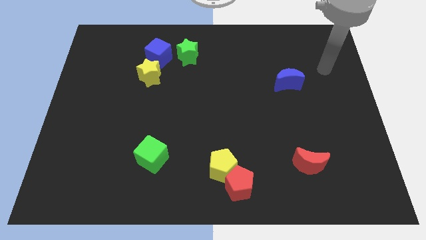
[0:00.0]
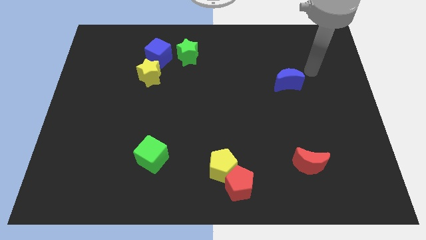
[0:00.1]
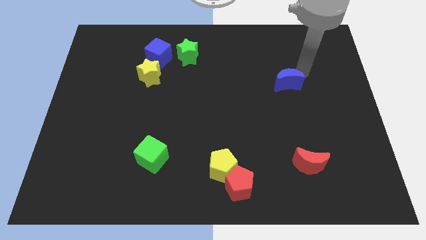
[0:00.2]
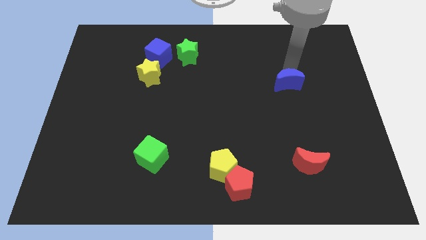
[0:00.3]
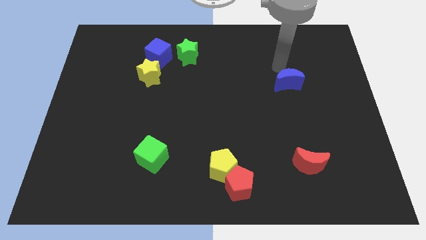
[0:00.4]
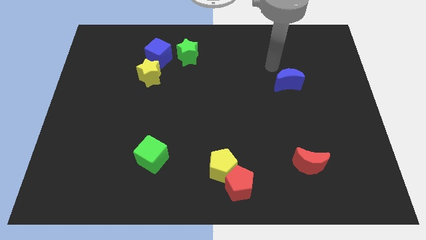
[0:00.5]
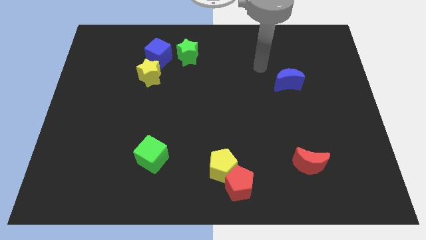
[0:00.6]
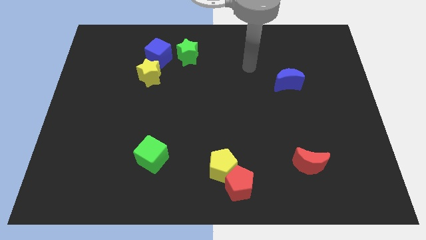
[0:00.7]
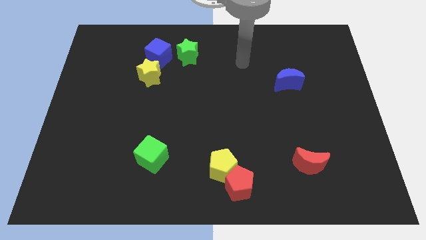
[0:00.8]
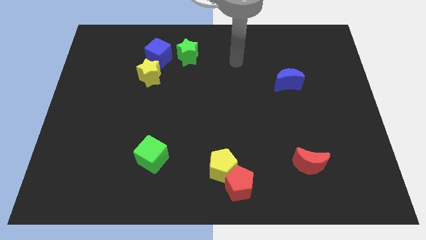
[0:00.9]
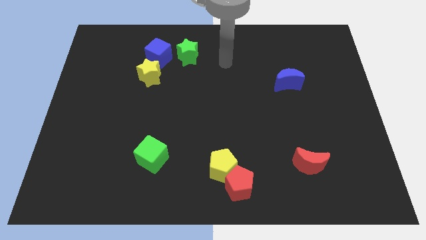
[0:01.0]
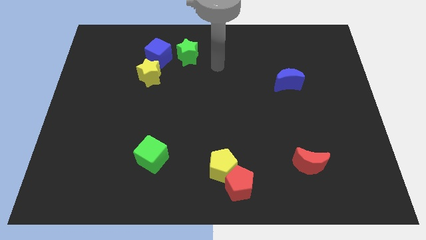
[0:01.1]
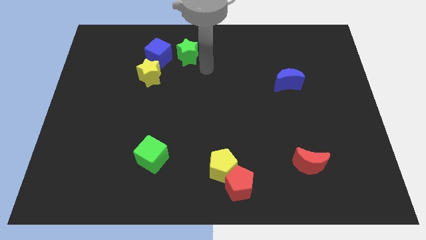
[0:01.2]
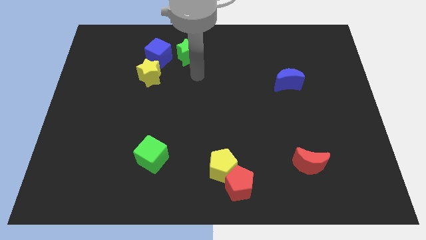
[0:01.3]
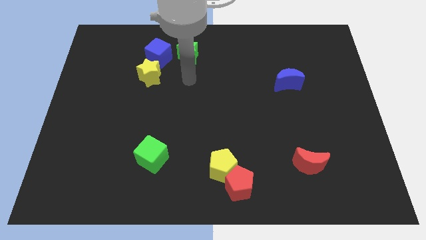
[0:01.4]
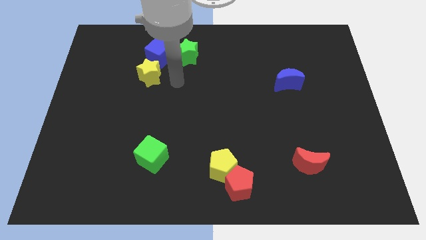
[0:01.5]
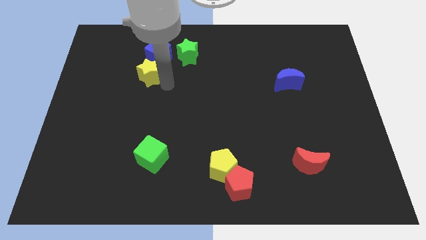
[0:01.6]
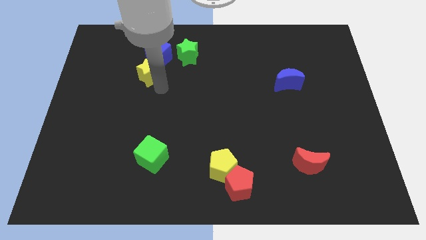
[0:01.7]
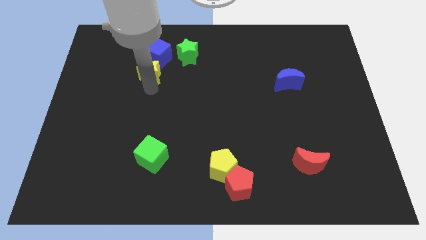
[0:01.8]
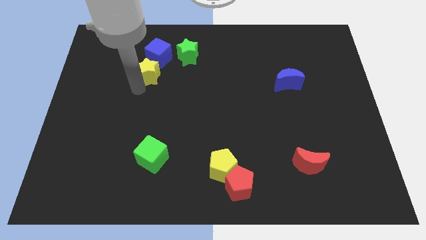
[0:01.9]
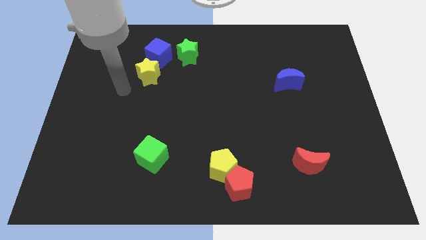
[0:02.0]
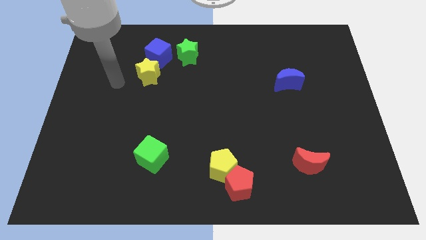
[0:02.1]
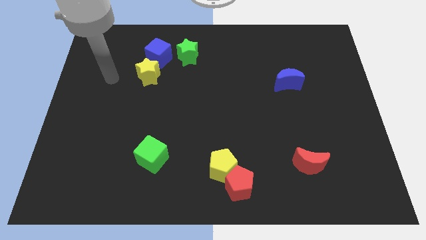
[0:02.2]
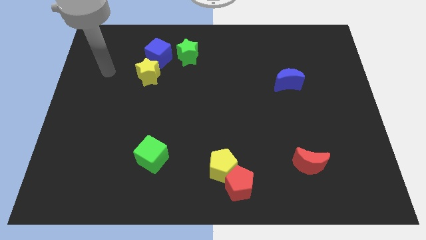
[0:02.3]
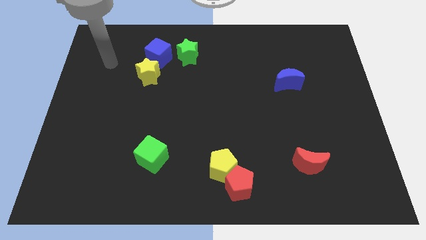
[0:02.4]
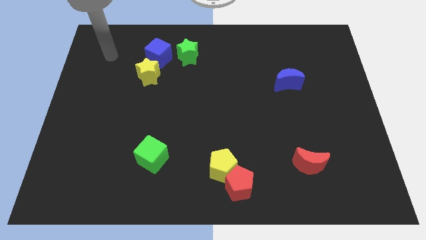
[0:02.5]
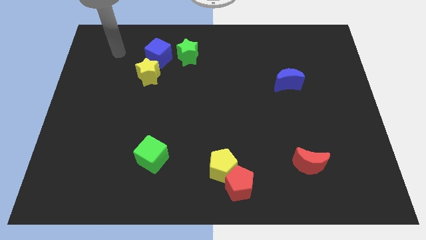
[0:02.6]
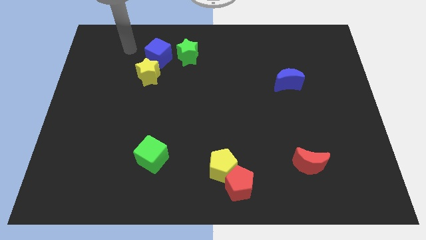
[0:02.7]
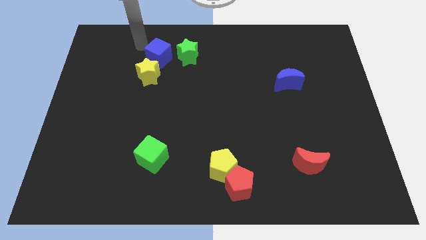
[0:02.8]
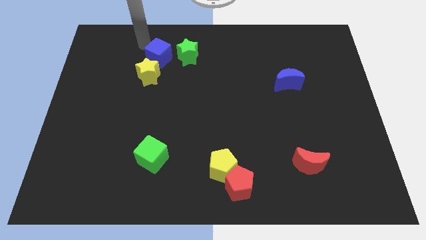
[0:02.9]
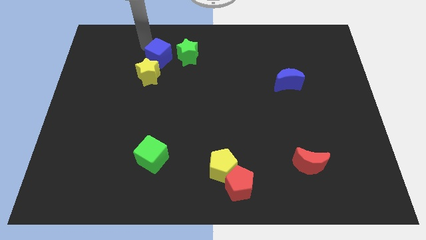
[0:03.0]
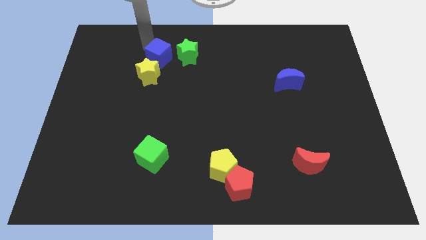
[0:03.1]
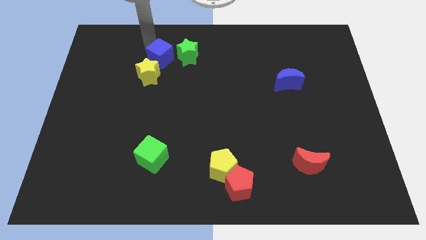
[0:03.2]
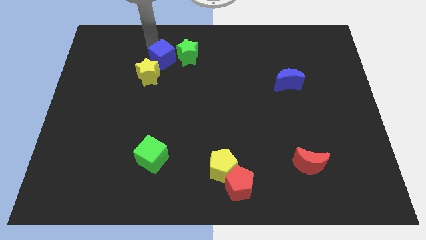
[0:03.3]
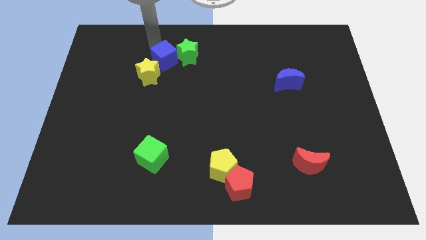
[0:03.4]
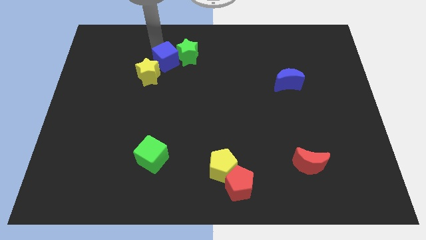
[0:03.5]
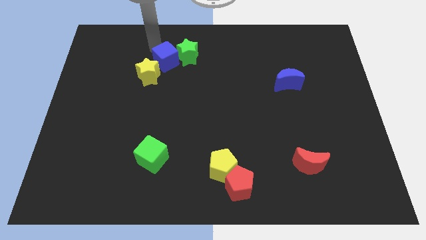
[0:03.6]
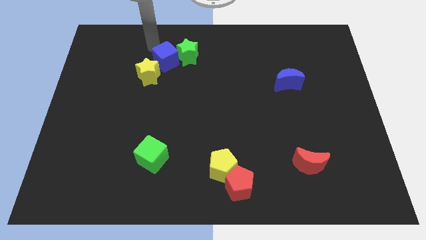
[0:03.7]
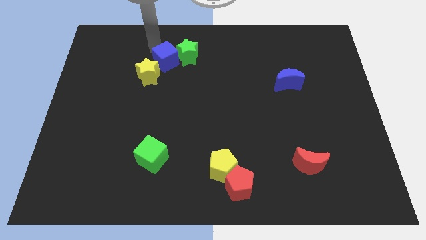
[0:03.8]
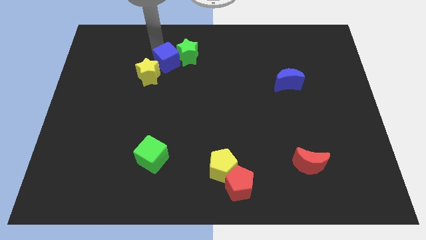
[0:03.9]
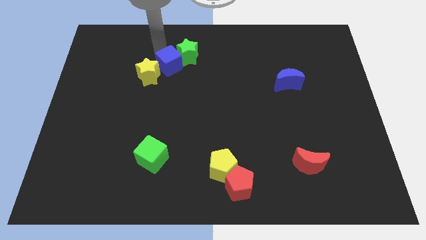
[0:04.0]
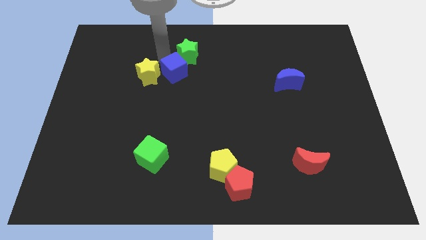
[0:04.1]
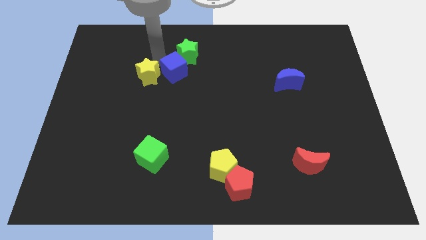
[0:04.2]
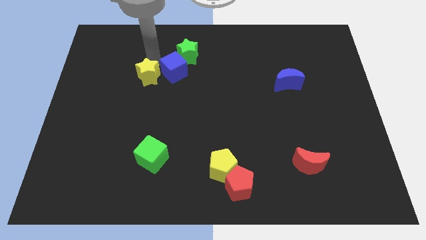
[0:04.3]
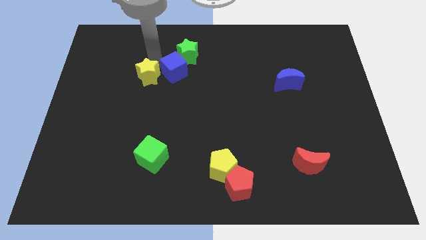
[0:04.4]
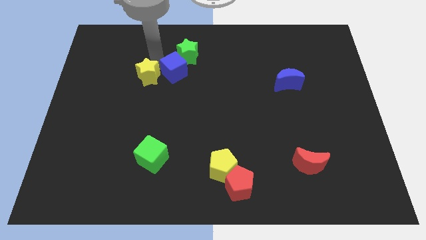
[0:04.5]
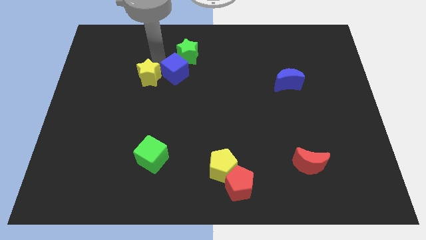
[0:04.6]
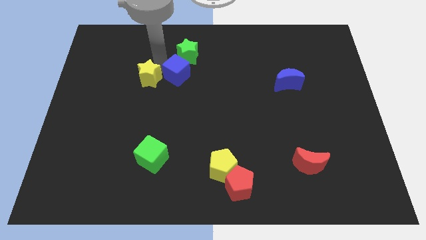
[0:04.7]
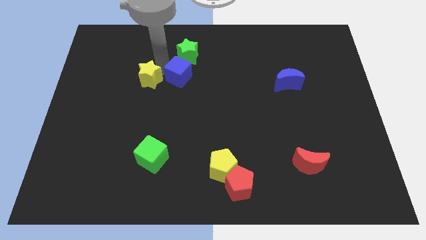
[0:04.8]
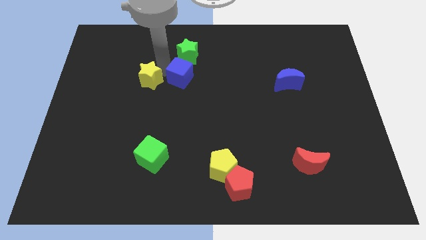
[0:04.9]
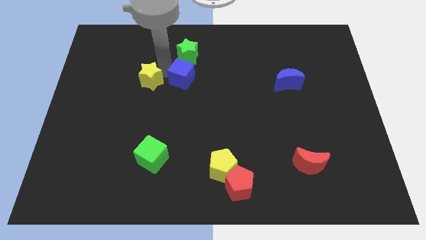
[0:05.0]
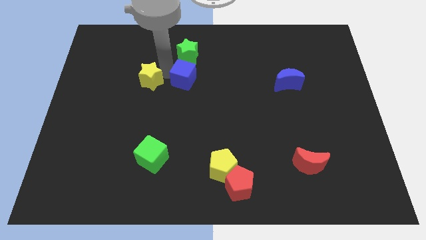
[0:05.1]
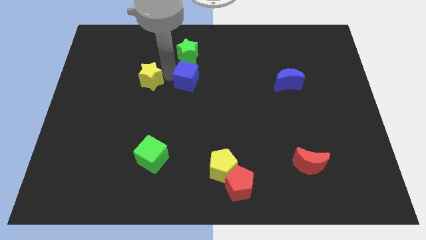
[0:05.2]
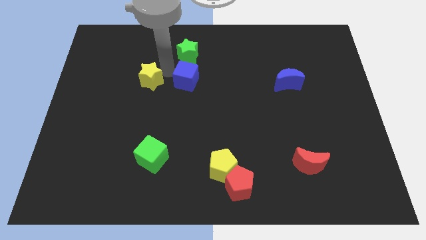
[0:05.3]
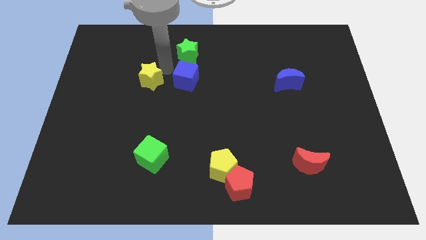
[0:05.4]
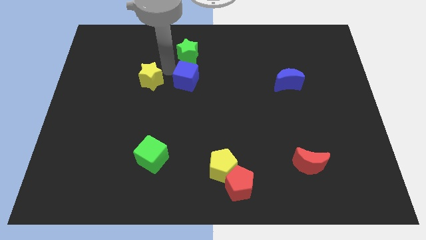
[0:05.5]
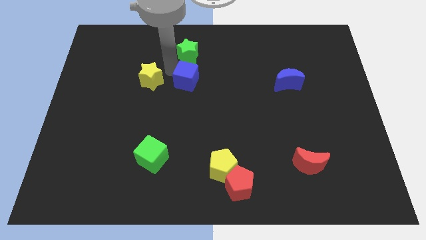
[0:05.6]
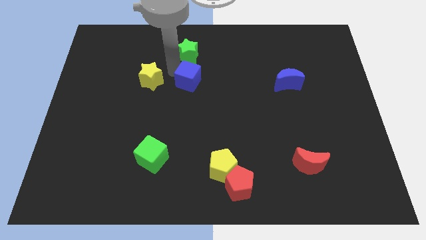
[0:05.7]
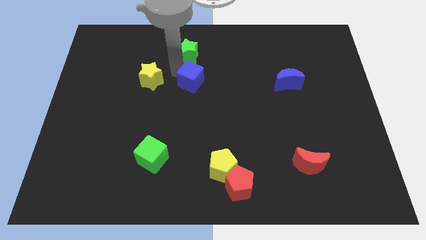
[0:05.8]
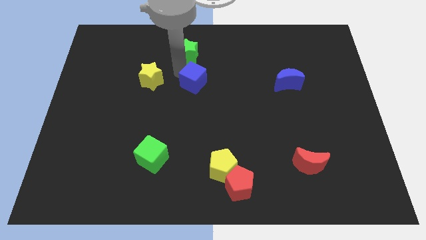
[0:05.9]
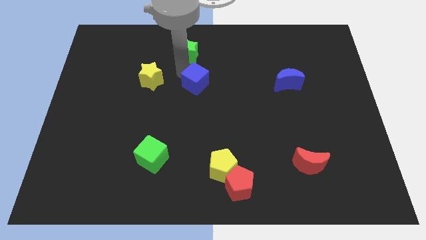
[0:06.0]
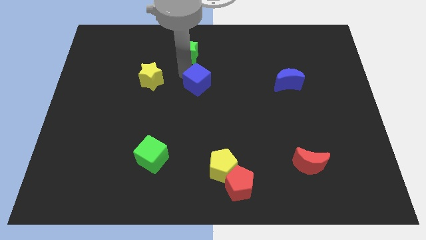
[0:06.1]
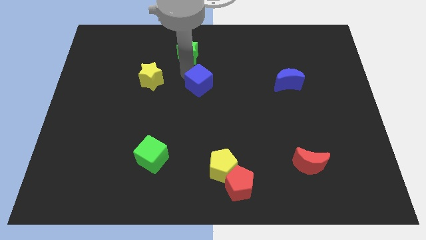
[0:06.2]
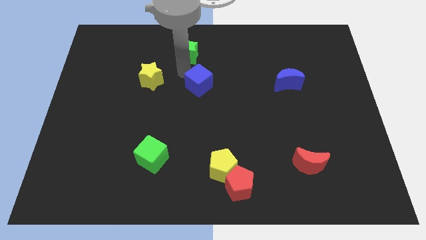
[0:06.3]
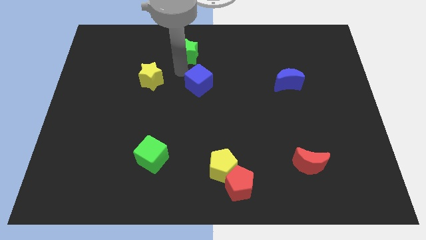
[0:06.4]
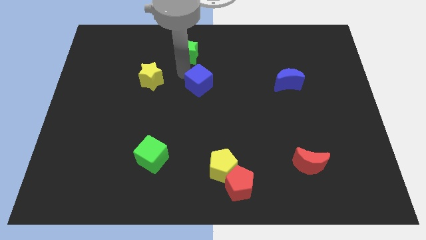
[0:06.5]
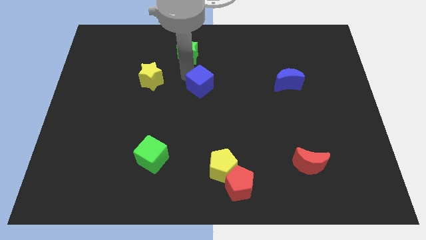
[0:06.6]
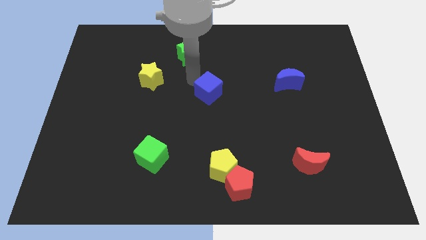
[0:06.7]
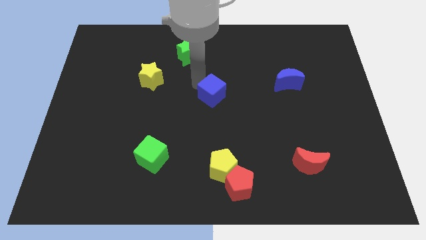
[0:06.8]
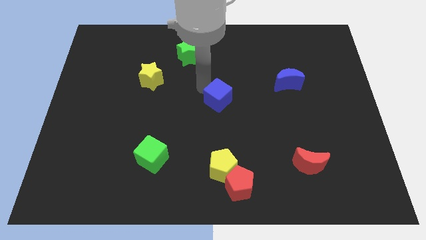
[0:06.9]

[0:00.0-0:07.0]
slide the blue cube downwards and right

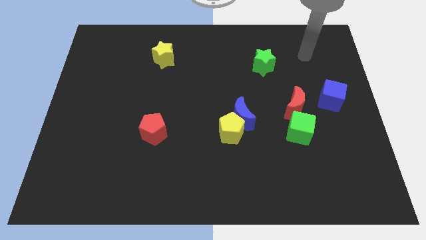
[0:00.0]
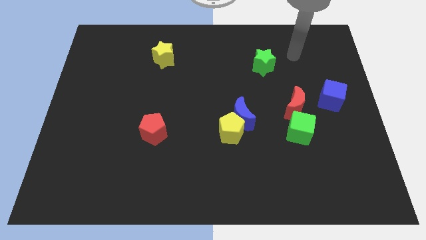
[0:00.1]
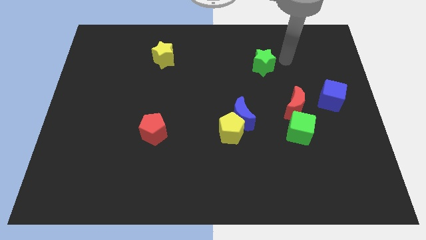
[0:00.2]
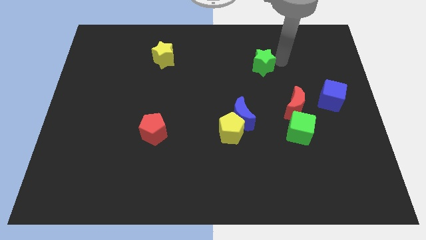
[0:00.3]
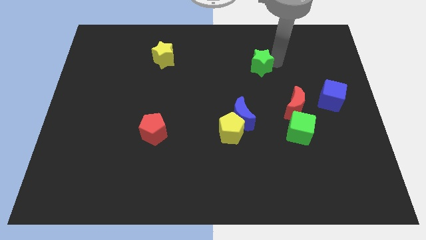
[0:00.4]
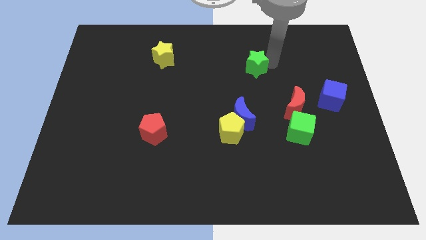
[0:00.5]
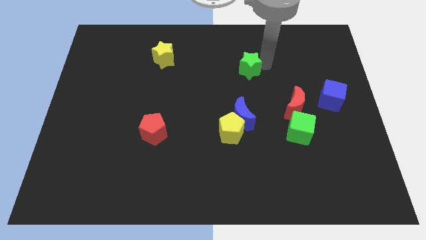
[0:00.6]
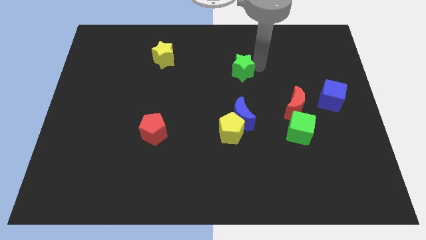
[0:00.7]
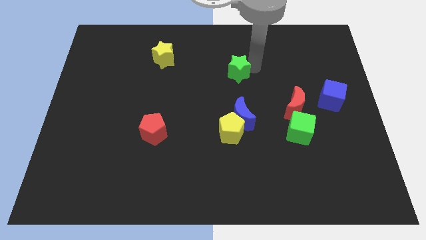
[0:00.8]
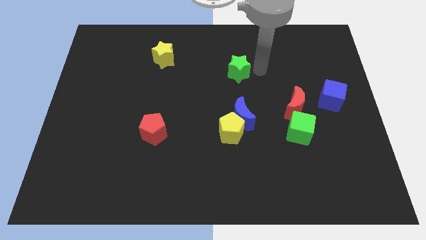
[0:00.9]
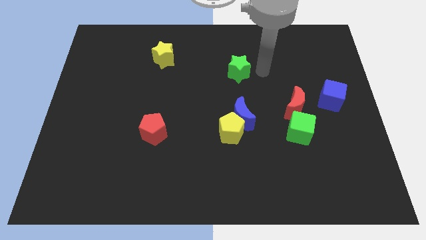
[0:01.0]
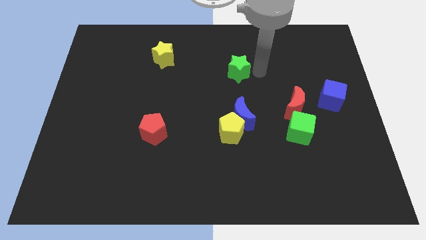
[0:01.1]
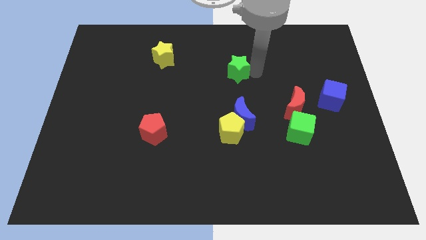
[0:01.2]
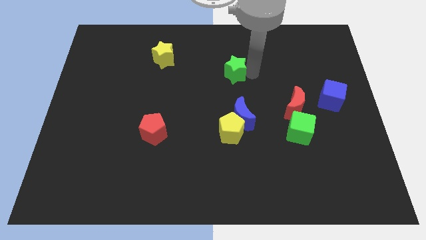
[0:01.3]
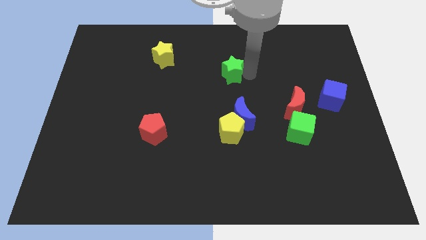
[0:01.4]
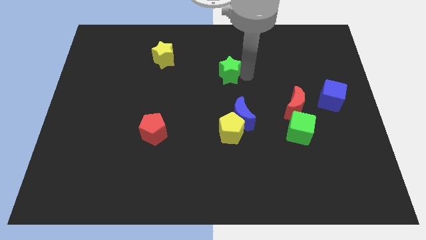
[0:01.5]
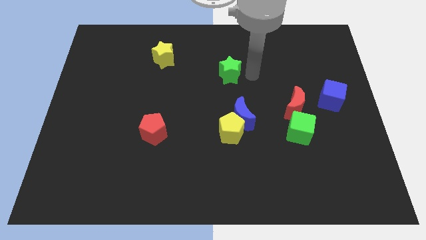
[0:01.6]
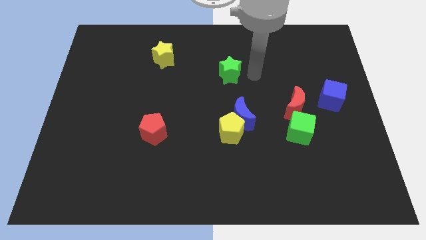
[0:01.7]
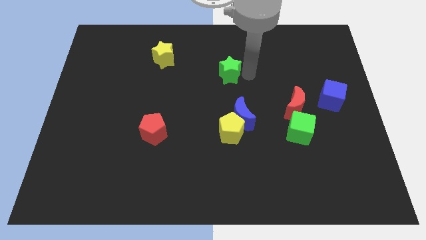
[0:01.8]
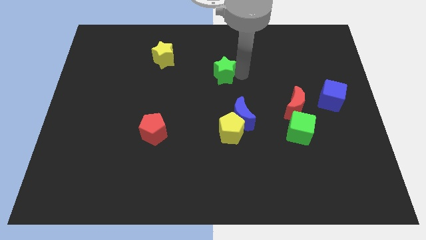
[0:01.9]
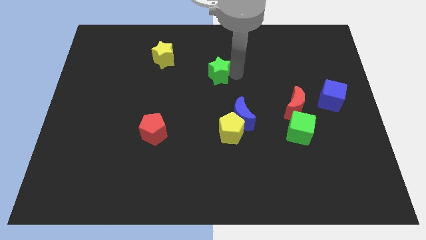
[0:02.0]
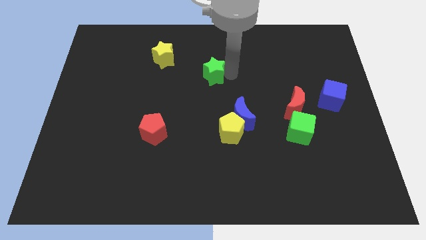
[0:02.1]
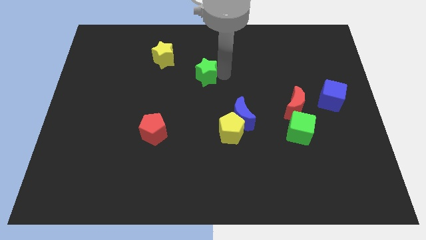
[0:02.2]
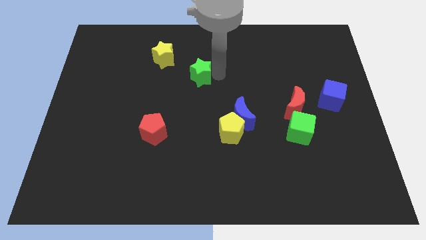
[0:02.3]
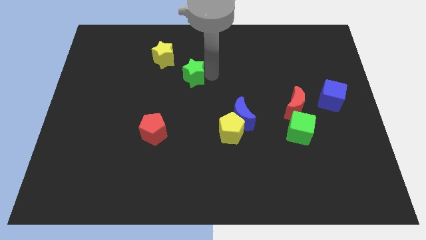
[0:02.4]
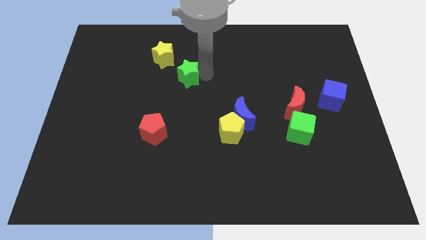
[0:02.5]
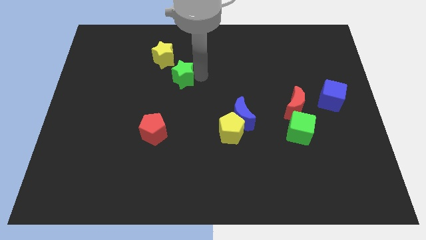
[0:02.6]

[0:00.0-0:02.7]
push the green star to the left
